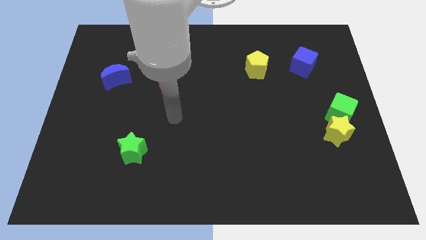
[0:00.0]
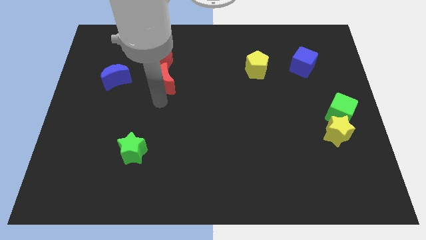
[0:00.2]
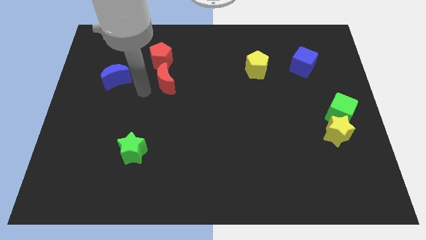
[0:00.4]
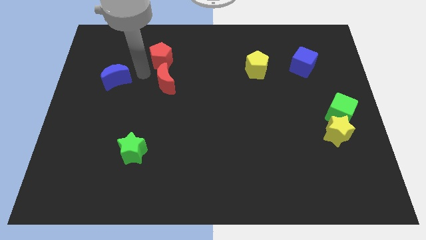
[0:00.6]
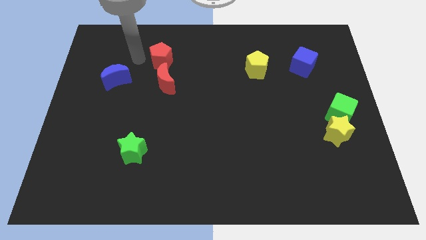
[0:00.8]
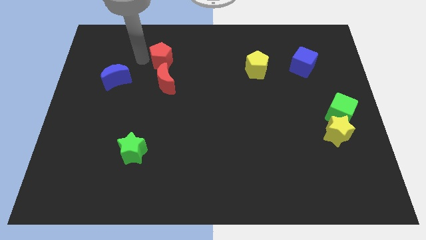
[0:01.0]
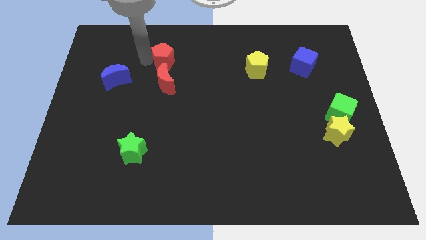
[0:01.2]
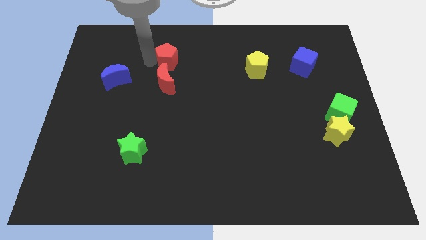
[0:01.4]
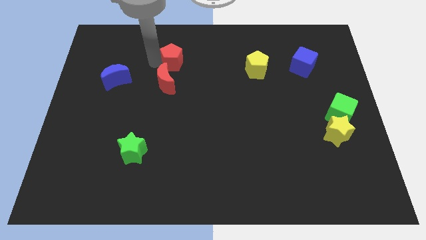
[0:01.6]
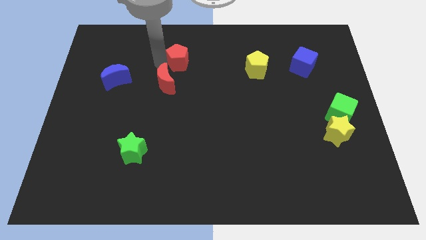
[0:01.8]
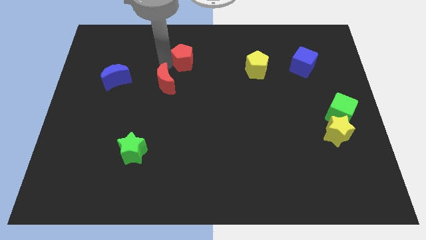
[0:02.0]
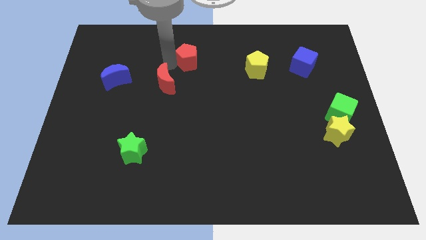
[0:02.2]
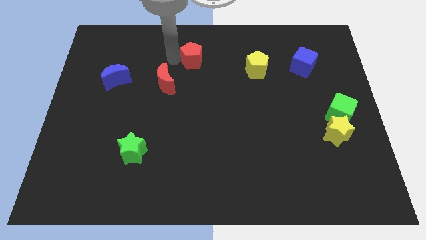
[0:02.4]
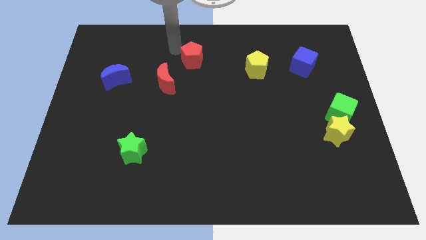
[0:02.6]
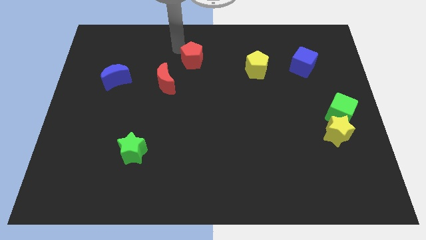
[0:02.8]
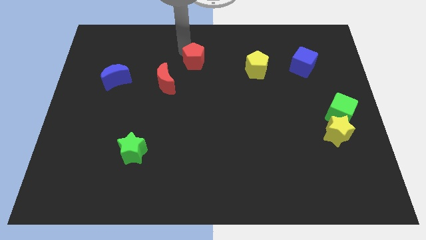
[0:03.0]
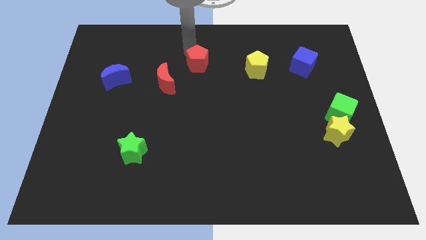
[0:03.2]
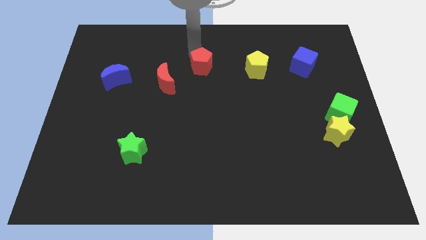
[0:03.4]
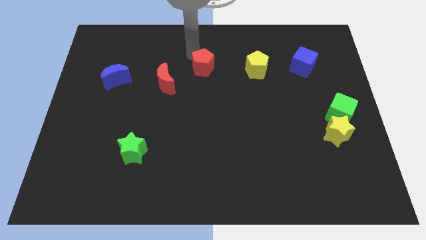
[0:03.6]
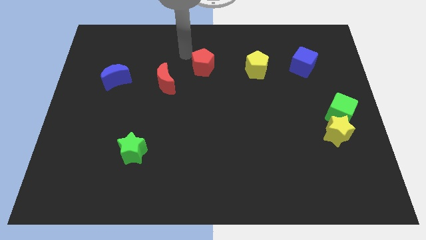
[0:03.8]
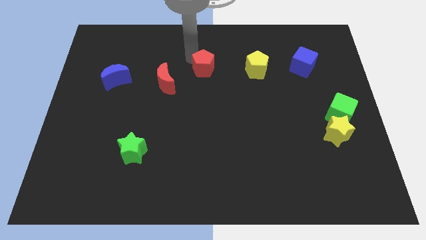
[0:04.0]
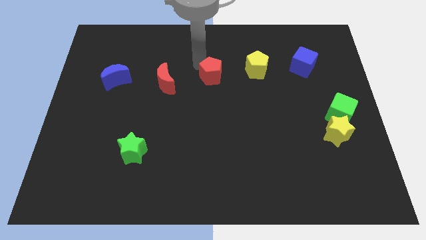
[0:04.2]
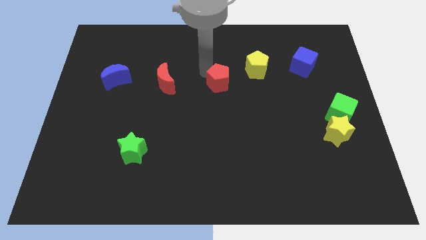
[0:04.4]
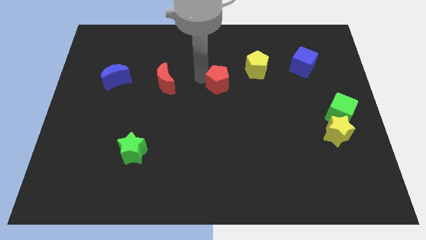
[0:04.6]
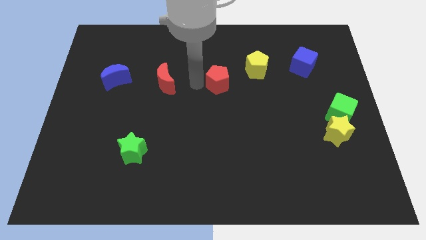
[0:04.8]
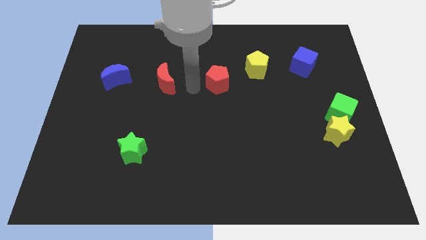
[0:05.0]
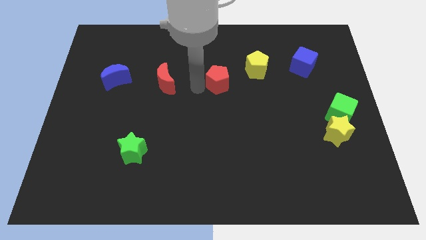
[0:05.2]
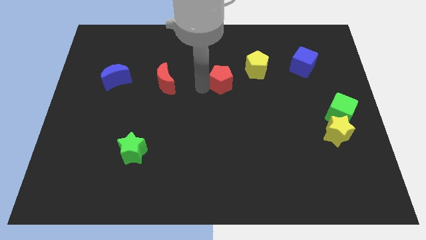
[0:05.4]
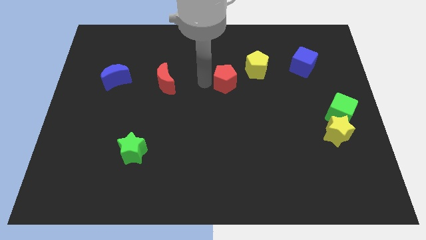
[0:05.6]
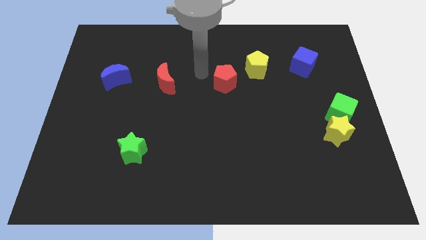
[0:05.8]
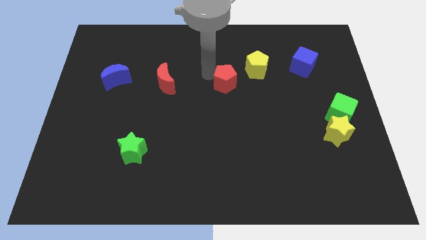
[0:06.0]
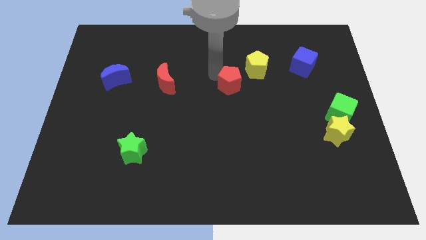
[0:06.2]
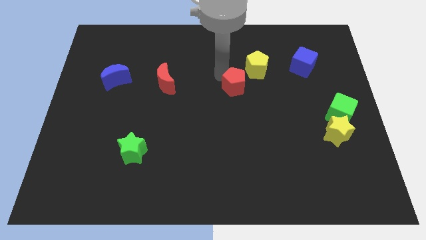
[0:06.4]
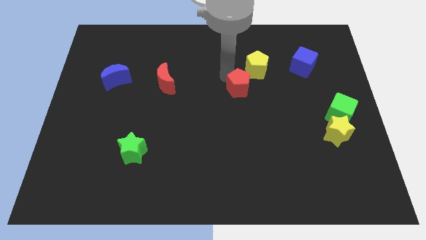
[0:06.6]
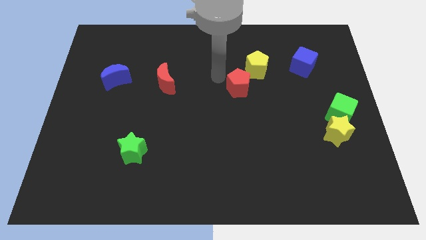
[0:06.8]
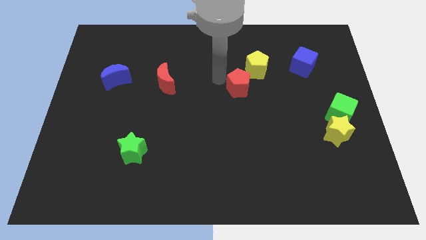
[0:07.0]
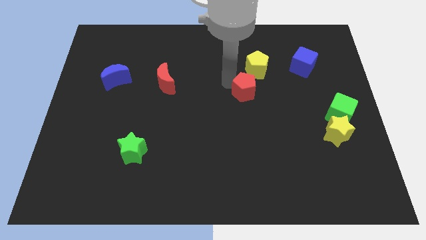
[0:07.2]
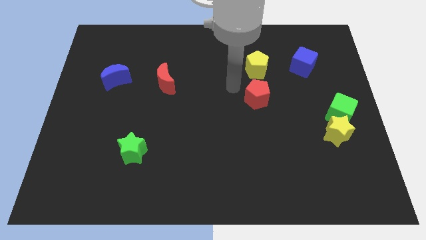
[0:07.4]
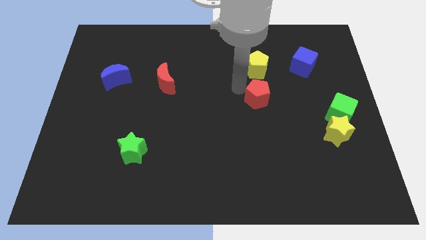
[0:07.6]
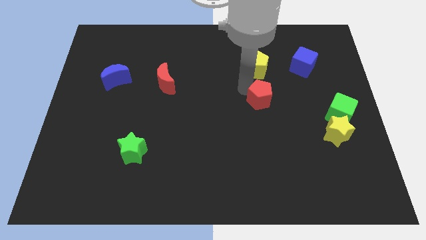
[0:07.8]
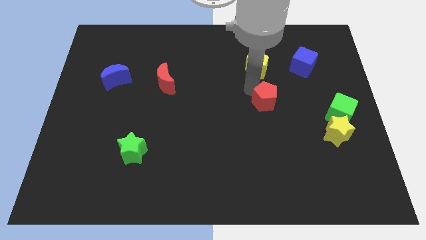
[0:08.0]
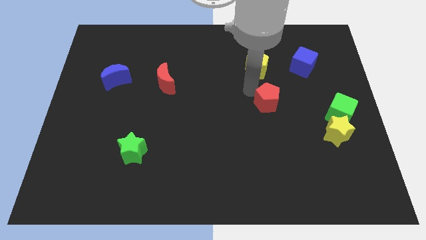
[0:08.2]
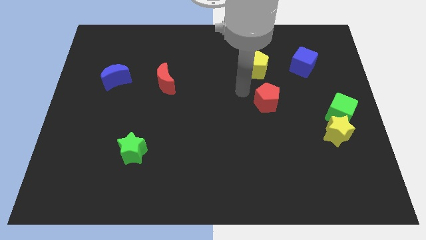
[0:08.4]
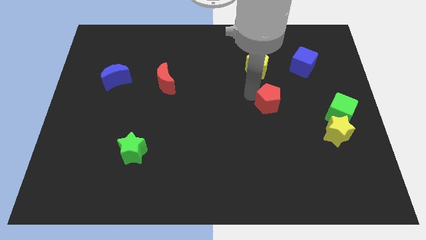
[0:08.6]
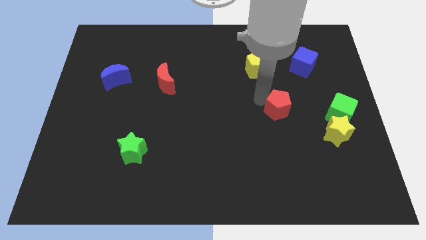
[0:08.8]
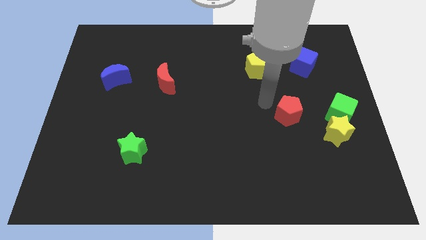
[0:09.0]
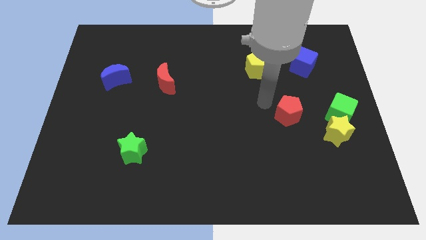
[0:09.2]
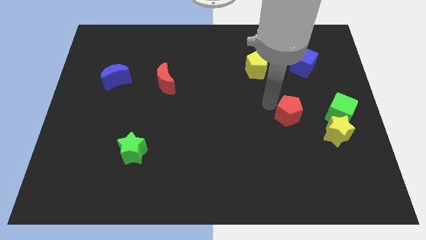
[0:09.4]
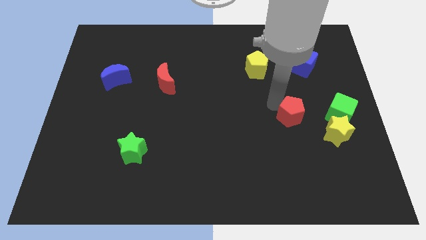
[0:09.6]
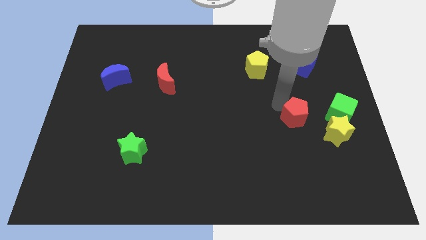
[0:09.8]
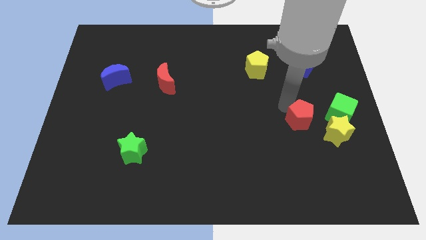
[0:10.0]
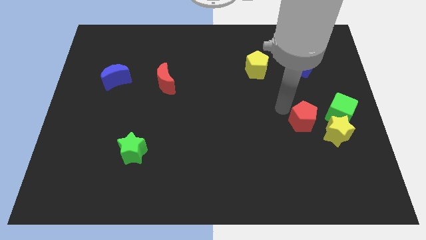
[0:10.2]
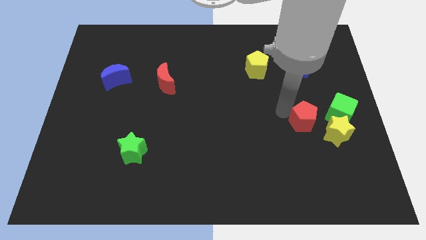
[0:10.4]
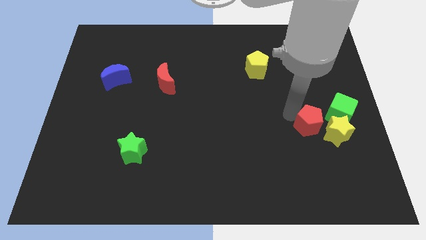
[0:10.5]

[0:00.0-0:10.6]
push the red pentagon next to the yellow star

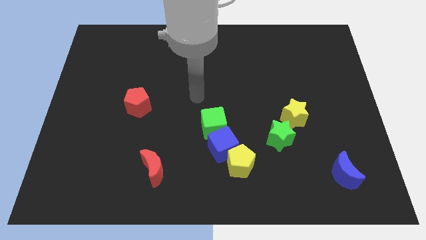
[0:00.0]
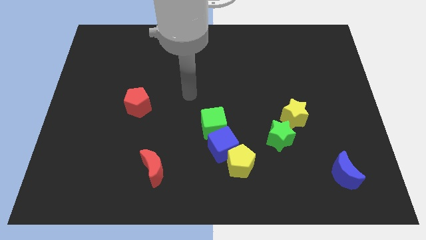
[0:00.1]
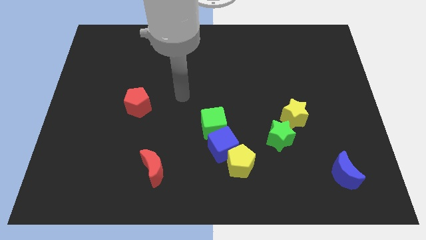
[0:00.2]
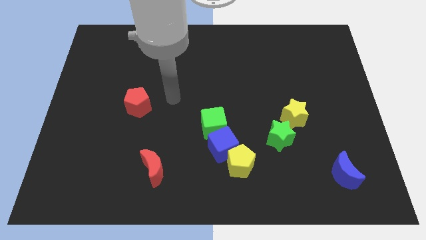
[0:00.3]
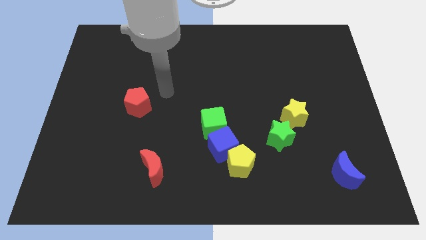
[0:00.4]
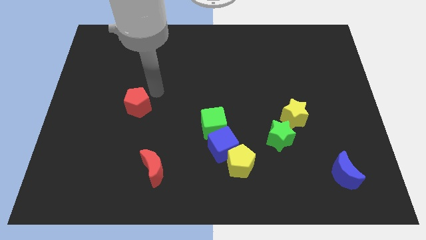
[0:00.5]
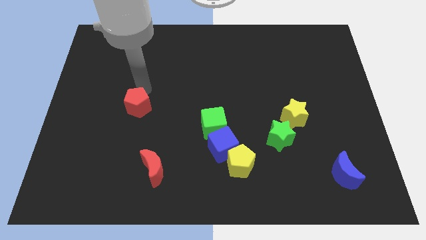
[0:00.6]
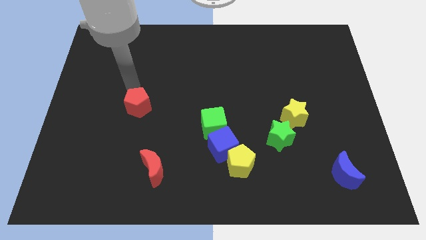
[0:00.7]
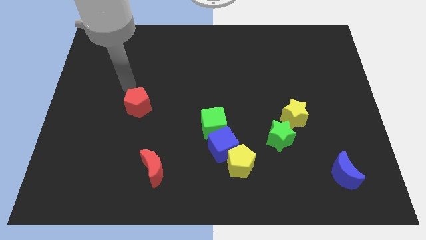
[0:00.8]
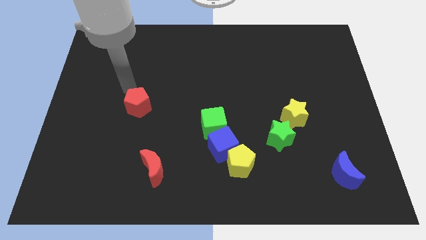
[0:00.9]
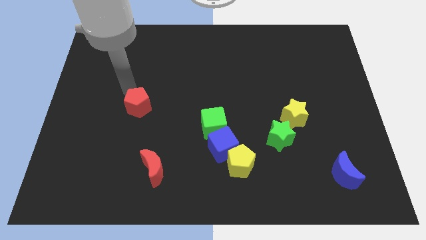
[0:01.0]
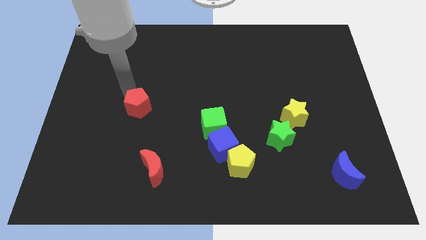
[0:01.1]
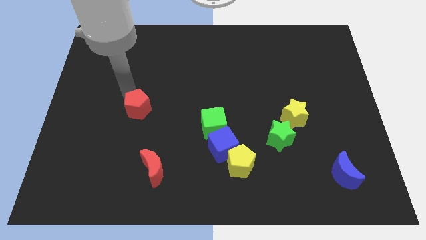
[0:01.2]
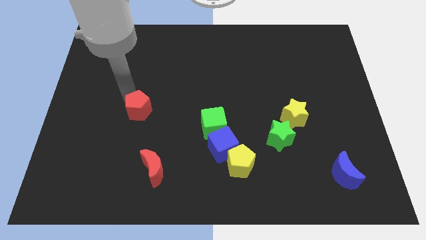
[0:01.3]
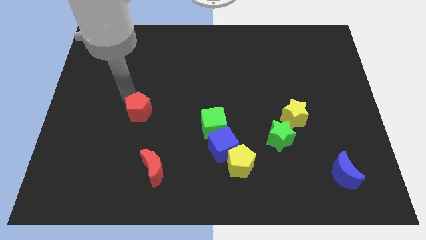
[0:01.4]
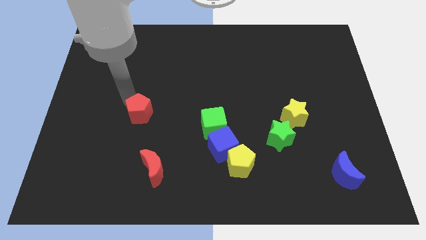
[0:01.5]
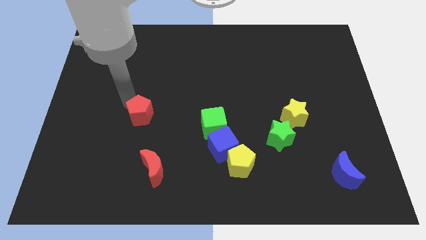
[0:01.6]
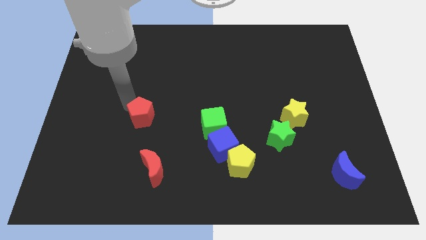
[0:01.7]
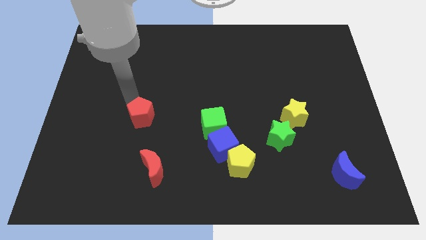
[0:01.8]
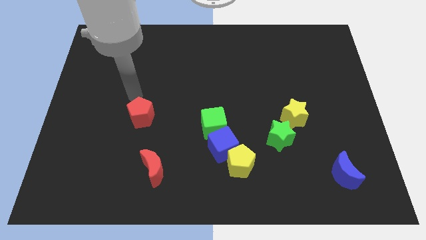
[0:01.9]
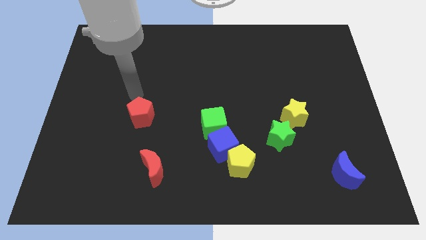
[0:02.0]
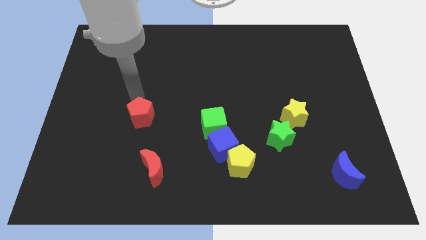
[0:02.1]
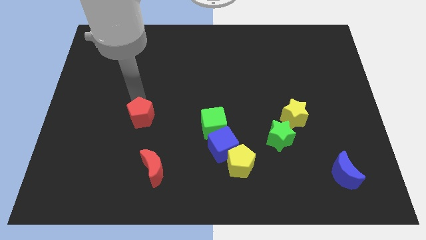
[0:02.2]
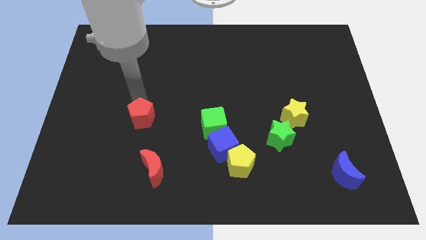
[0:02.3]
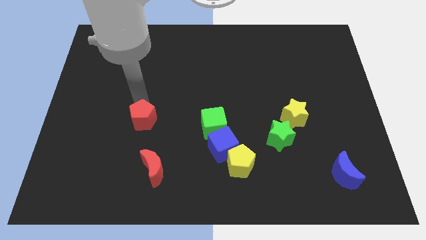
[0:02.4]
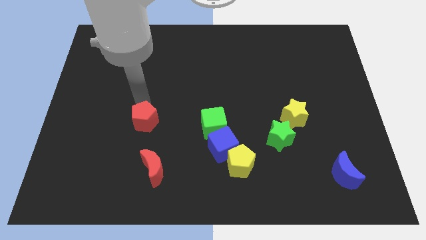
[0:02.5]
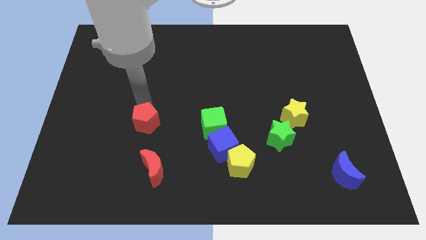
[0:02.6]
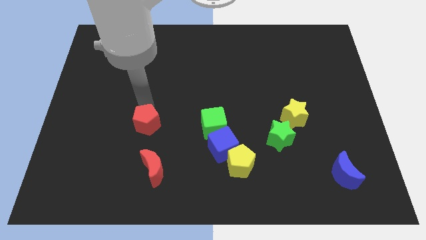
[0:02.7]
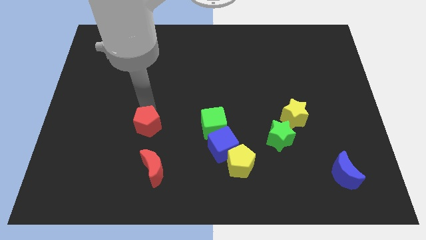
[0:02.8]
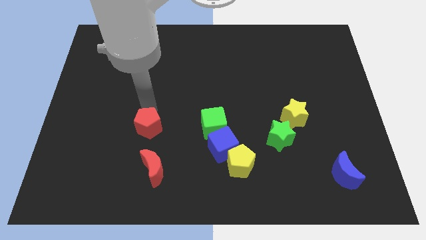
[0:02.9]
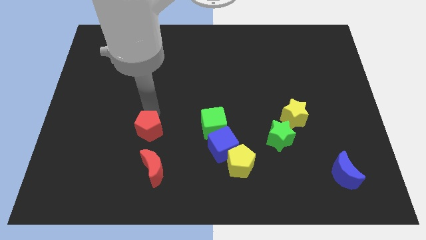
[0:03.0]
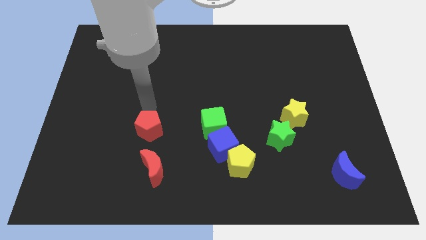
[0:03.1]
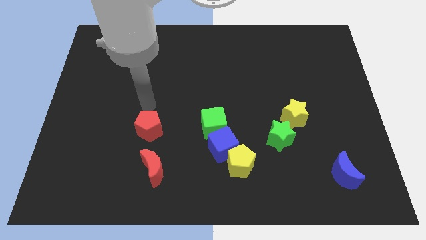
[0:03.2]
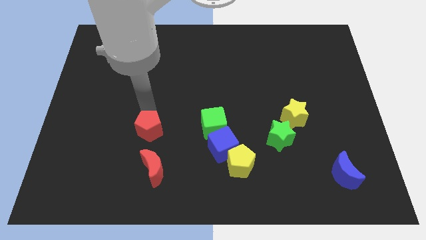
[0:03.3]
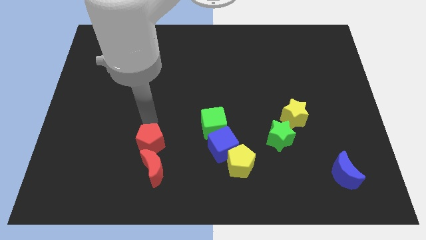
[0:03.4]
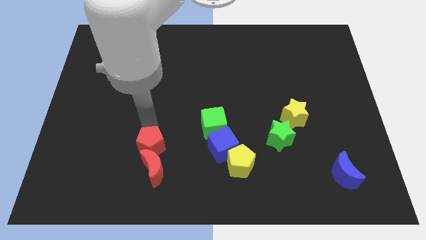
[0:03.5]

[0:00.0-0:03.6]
put the red pentagon to the red moon
